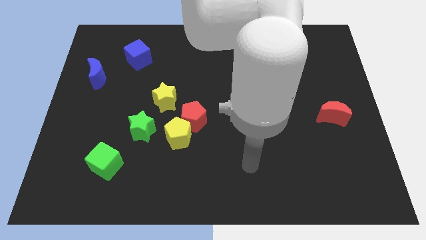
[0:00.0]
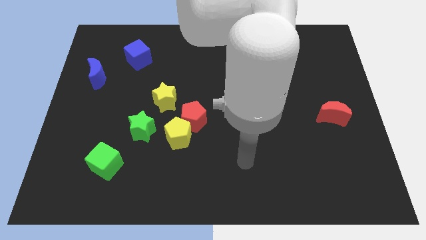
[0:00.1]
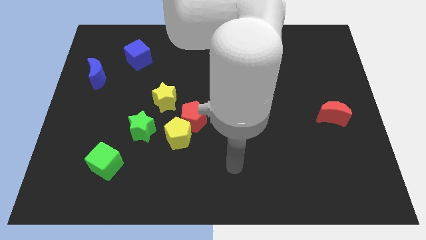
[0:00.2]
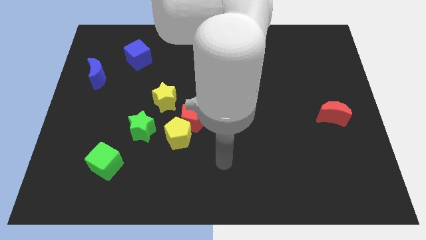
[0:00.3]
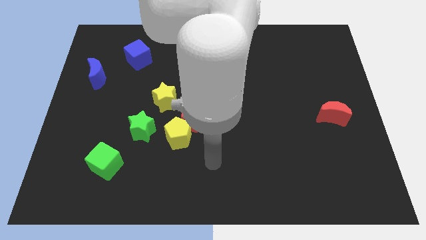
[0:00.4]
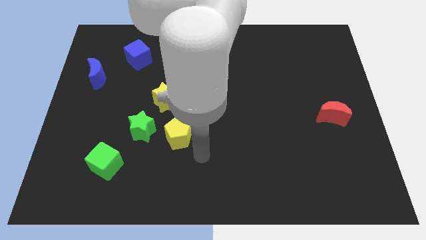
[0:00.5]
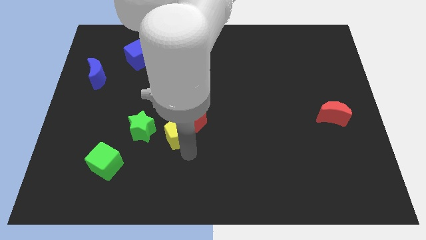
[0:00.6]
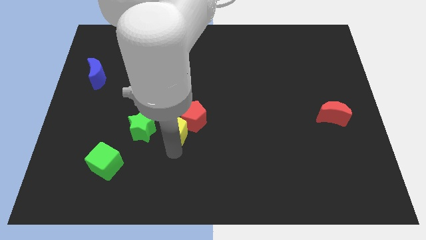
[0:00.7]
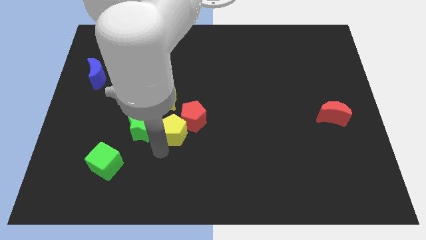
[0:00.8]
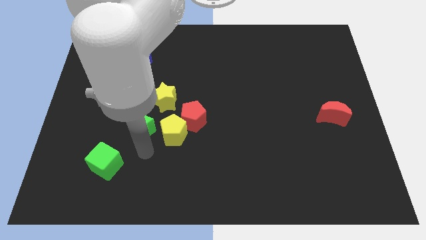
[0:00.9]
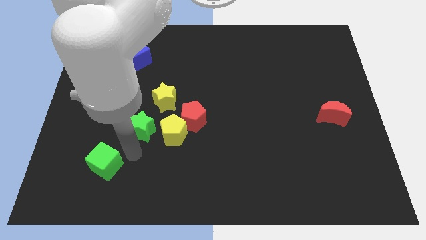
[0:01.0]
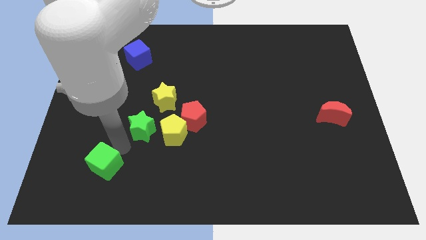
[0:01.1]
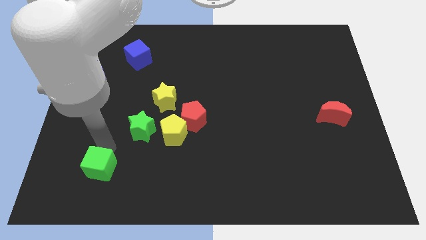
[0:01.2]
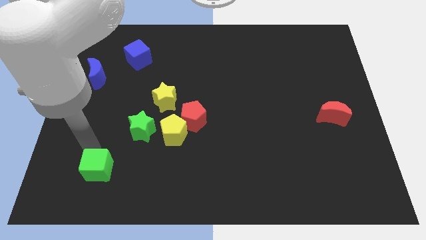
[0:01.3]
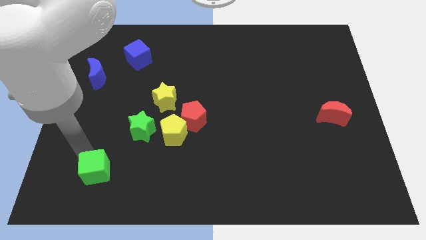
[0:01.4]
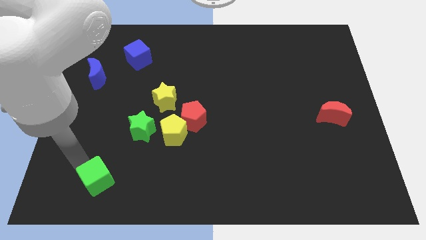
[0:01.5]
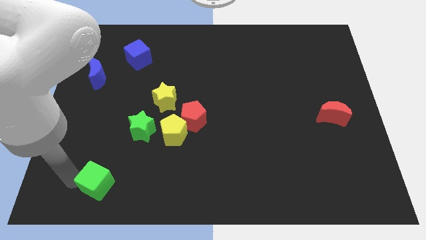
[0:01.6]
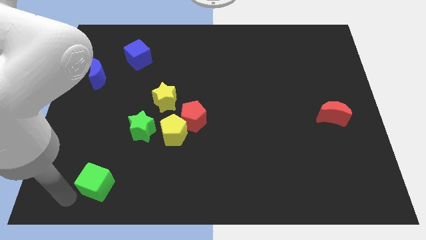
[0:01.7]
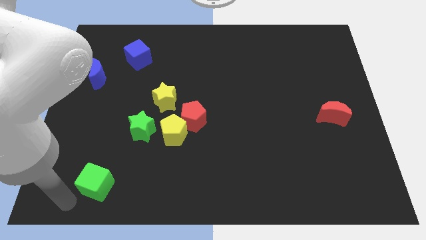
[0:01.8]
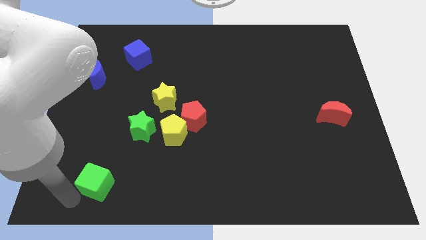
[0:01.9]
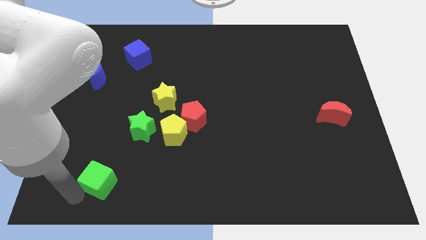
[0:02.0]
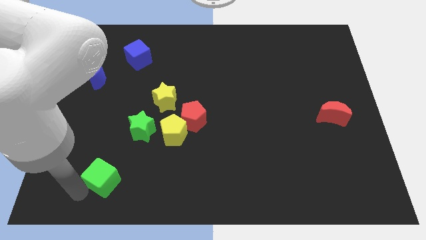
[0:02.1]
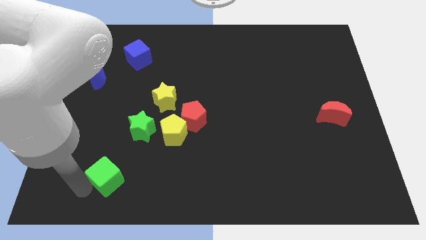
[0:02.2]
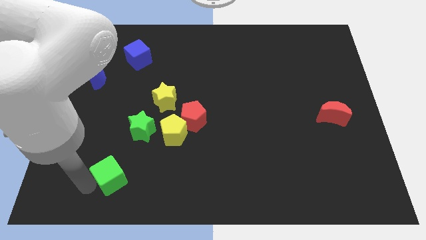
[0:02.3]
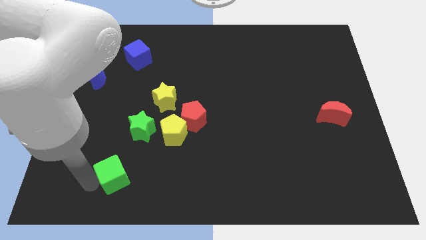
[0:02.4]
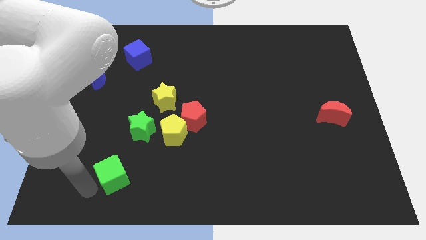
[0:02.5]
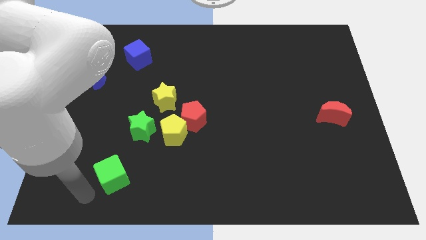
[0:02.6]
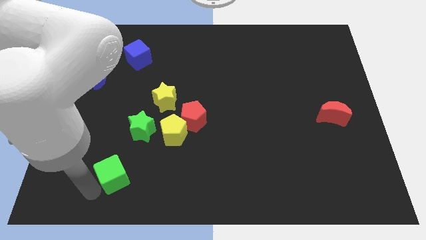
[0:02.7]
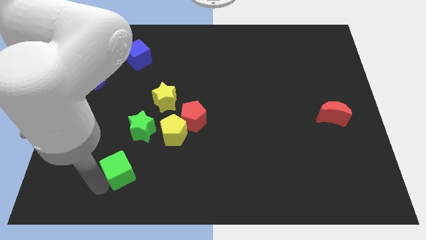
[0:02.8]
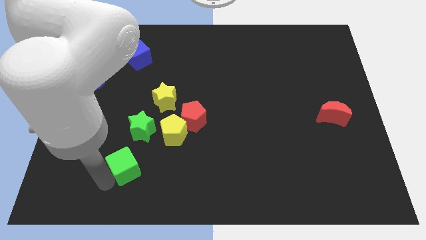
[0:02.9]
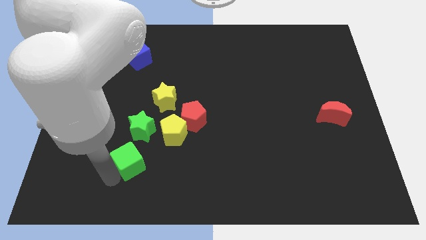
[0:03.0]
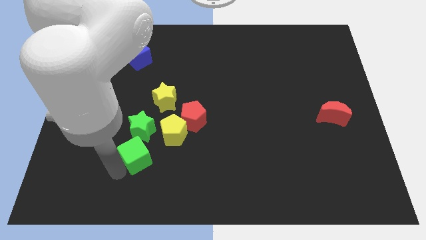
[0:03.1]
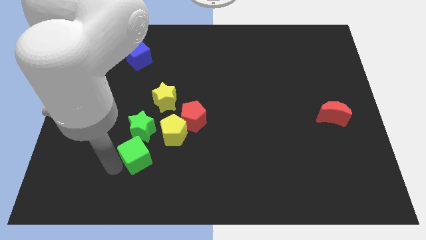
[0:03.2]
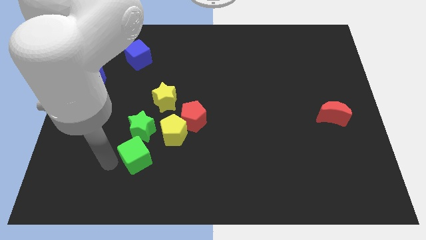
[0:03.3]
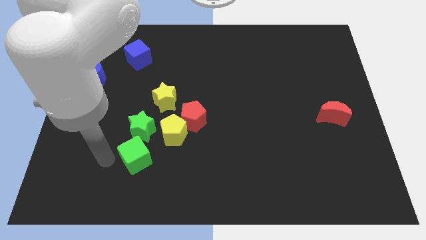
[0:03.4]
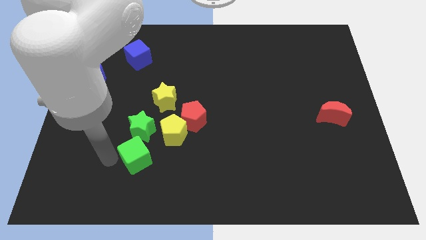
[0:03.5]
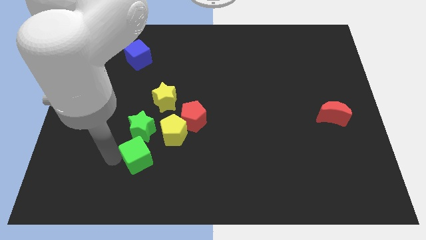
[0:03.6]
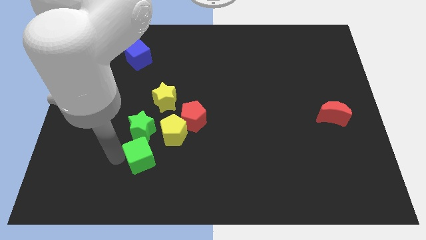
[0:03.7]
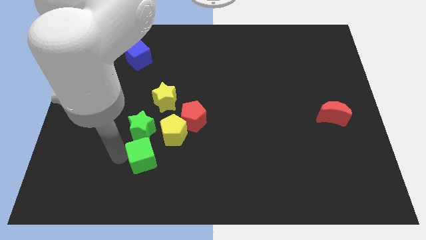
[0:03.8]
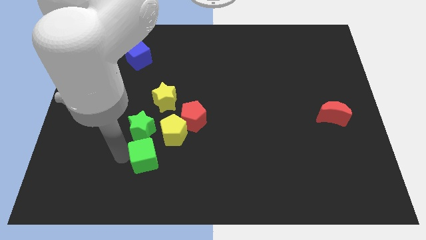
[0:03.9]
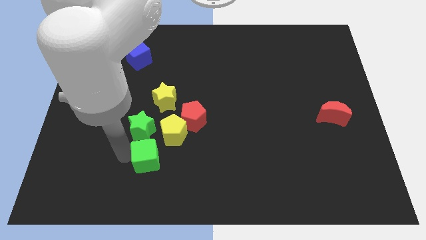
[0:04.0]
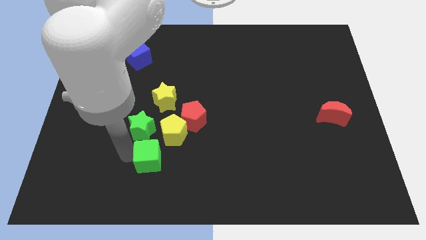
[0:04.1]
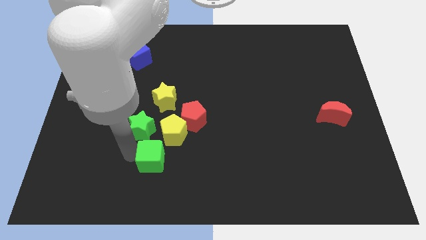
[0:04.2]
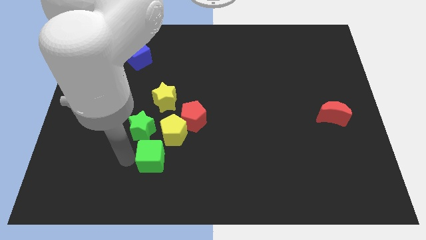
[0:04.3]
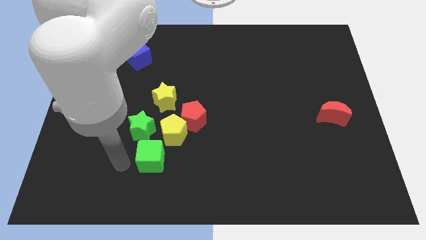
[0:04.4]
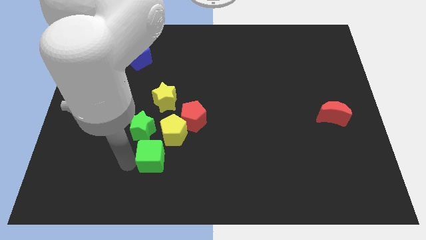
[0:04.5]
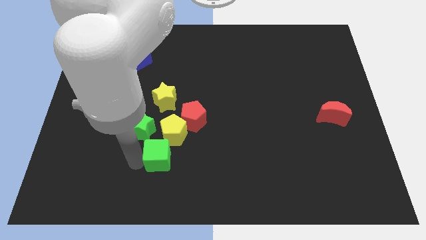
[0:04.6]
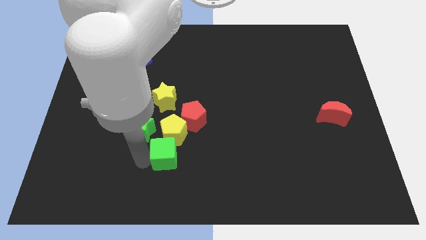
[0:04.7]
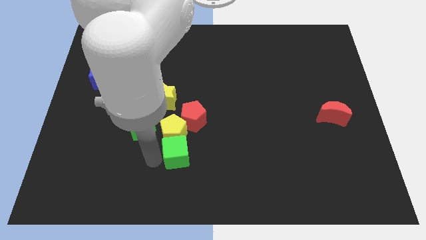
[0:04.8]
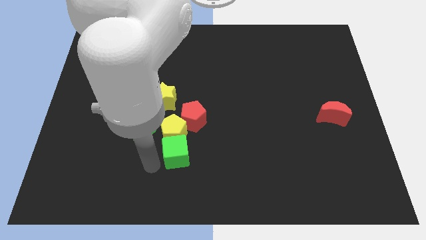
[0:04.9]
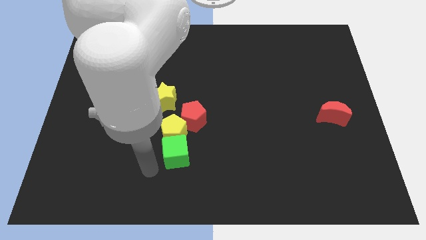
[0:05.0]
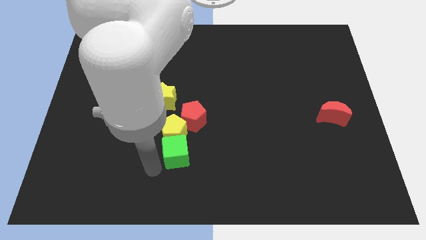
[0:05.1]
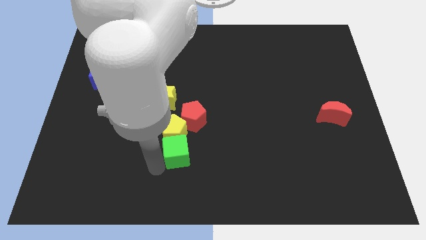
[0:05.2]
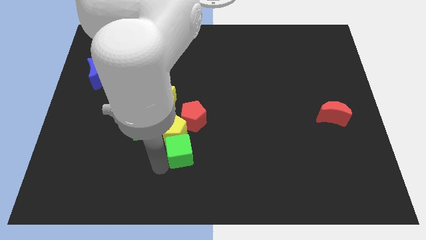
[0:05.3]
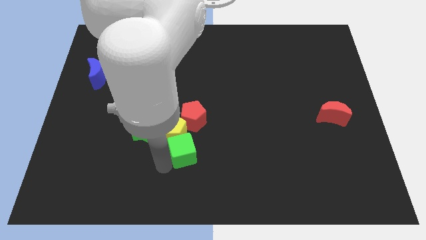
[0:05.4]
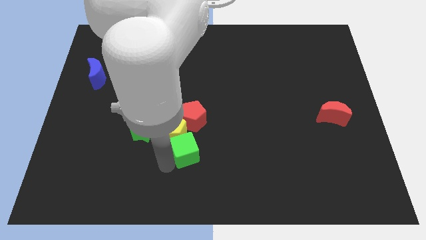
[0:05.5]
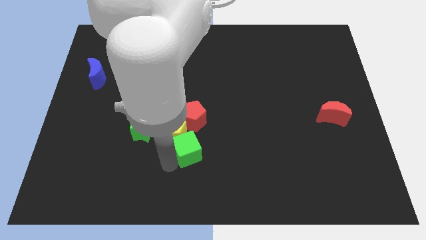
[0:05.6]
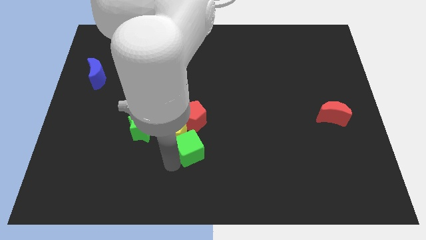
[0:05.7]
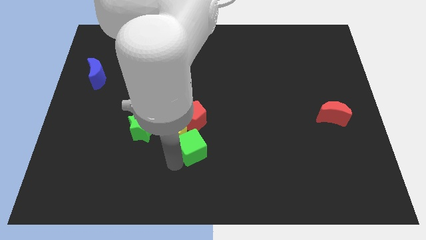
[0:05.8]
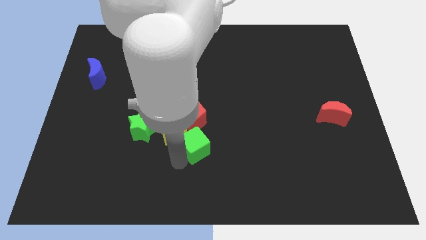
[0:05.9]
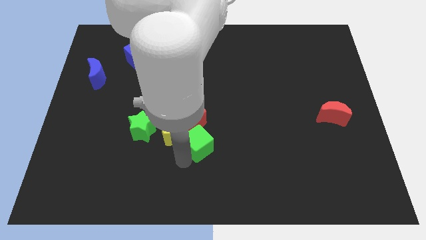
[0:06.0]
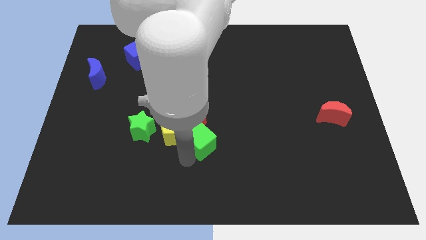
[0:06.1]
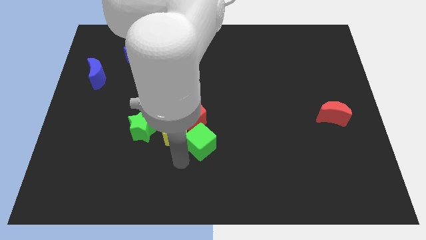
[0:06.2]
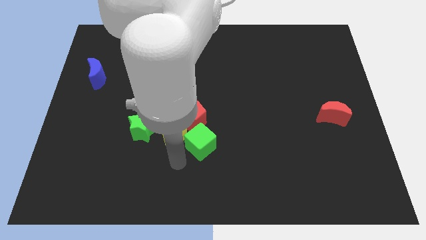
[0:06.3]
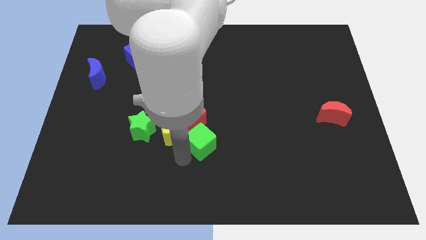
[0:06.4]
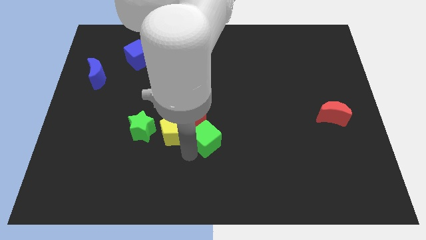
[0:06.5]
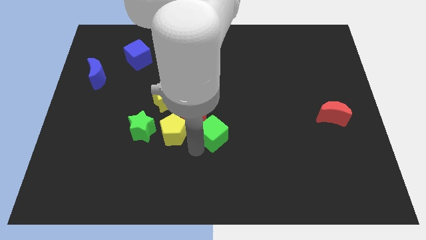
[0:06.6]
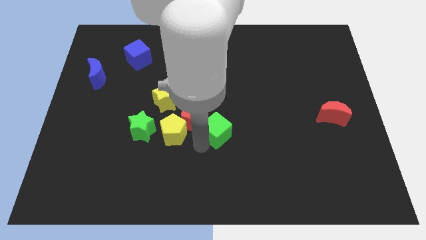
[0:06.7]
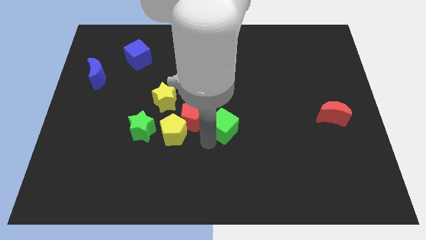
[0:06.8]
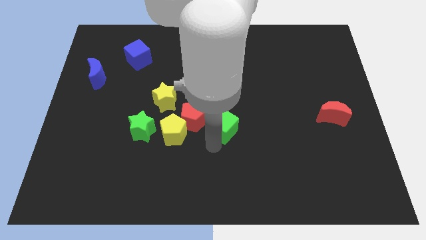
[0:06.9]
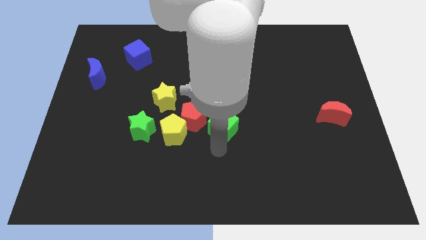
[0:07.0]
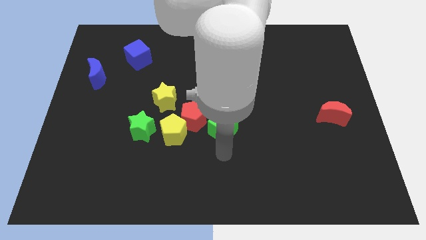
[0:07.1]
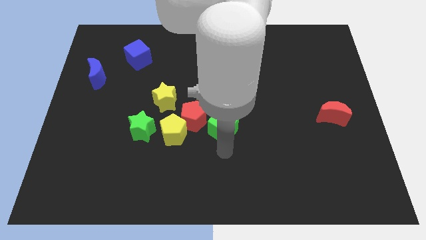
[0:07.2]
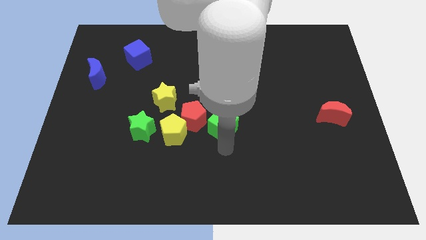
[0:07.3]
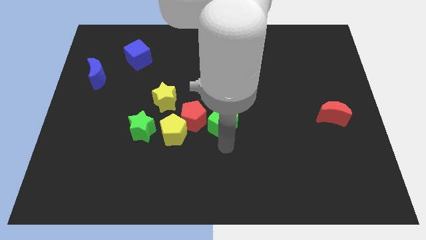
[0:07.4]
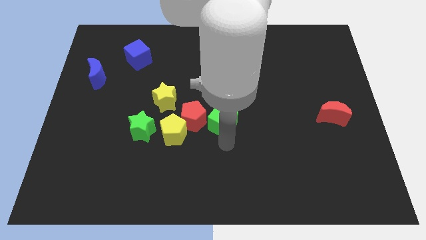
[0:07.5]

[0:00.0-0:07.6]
push the green cube up and then to the right

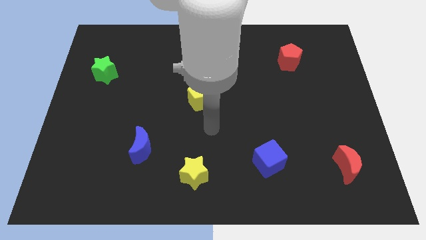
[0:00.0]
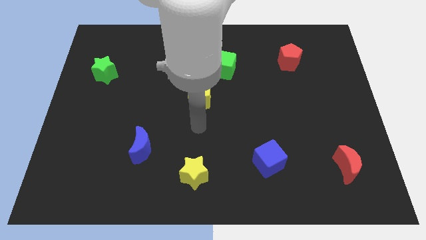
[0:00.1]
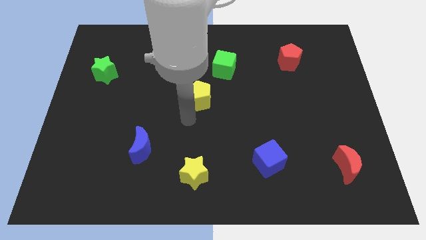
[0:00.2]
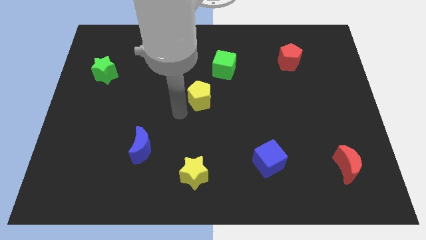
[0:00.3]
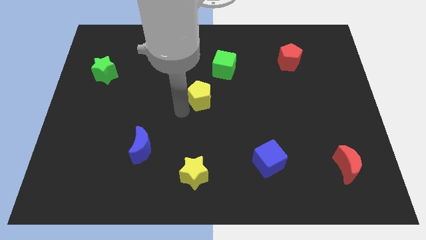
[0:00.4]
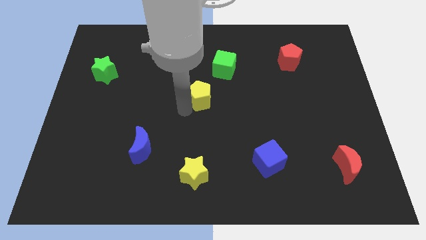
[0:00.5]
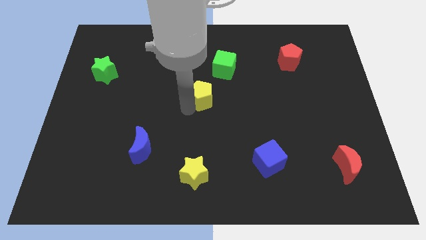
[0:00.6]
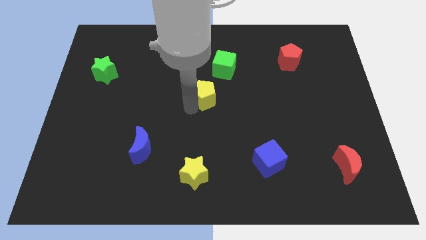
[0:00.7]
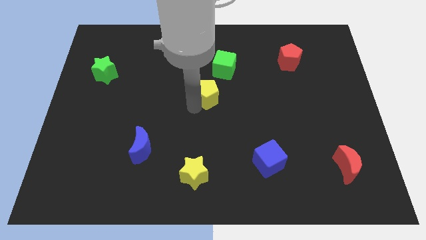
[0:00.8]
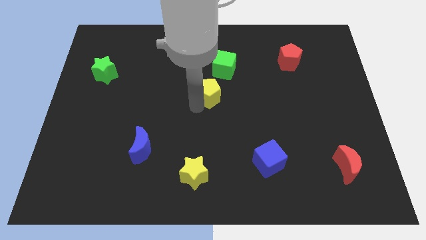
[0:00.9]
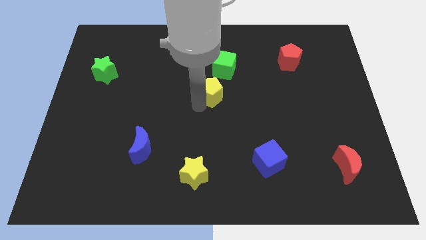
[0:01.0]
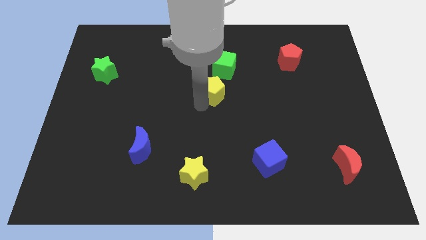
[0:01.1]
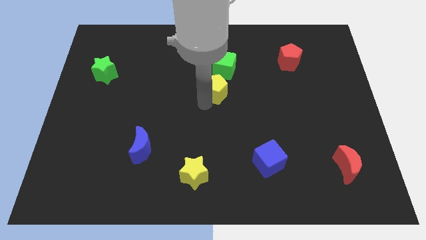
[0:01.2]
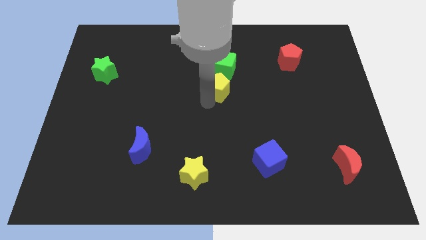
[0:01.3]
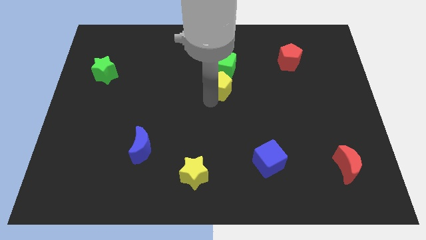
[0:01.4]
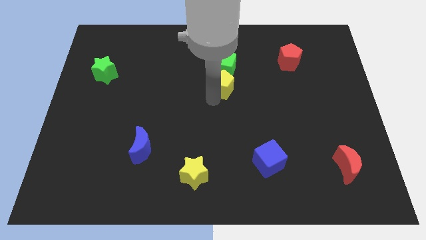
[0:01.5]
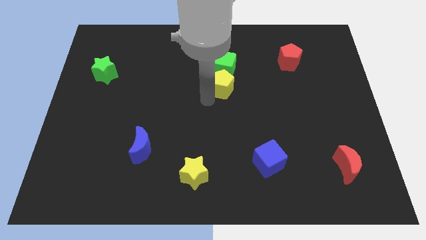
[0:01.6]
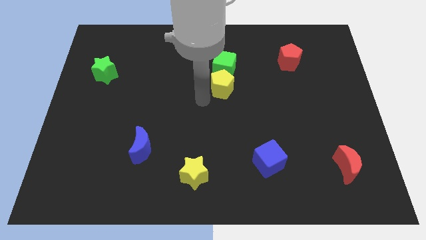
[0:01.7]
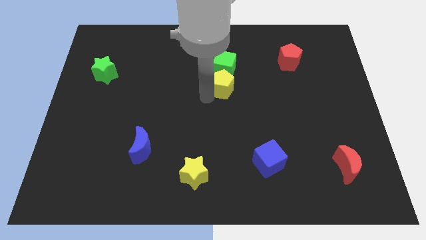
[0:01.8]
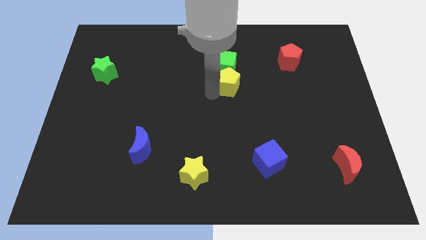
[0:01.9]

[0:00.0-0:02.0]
move the yellow pentagon a bit up and right
